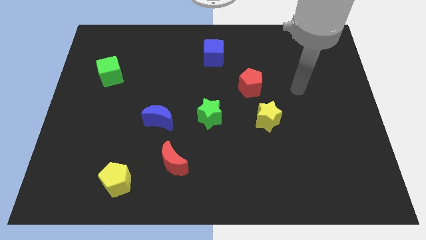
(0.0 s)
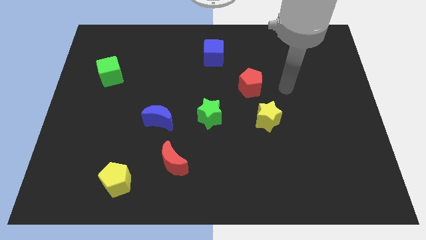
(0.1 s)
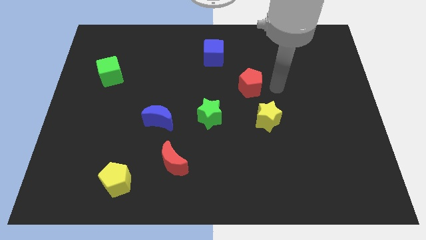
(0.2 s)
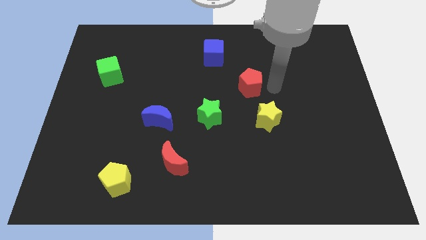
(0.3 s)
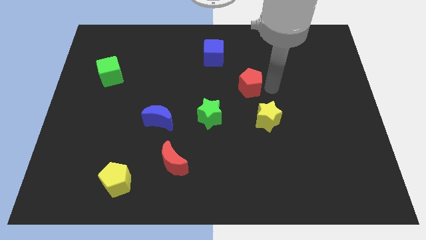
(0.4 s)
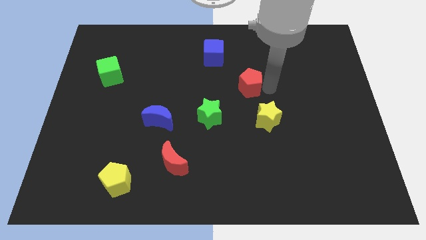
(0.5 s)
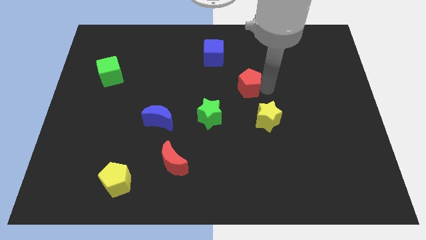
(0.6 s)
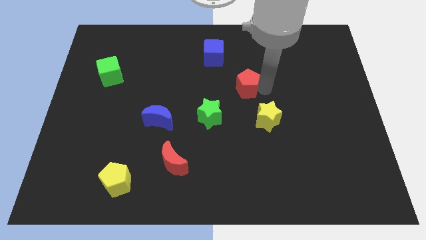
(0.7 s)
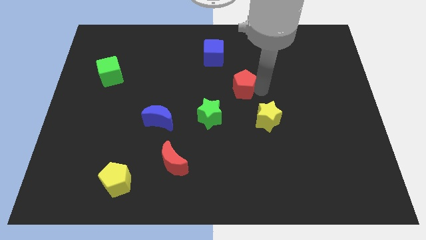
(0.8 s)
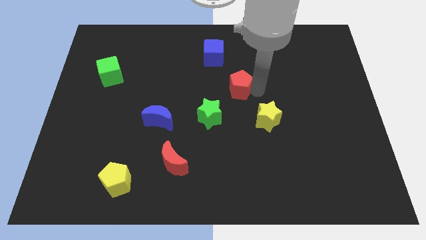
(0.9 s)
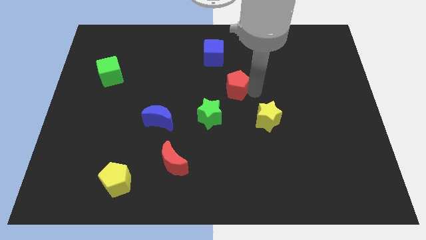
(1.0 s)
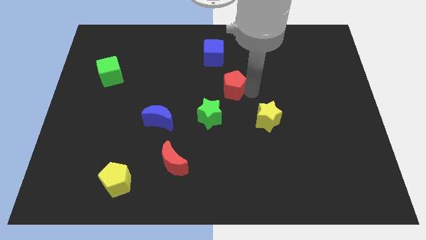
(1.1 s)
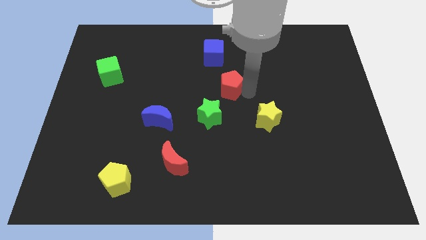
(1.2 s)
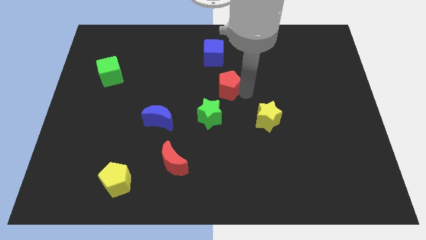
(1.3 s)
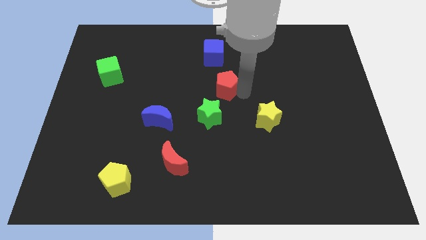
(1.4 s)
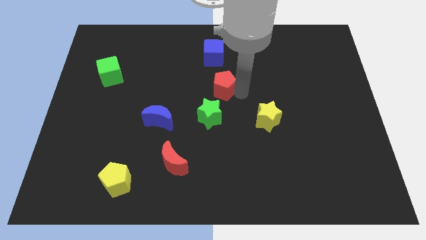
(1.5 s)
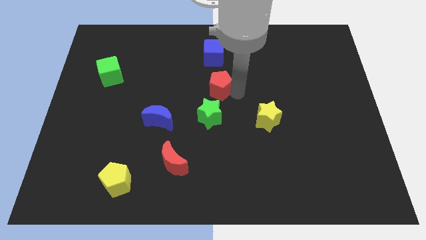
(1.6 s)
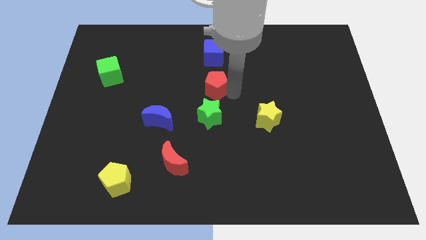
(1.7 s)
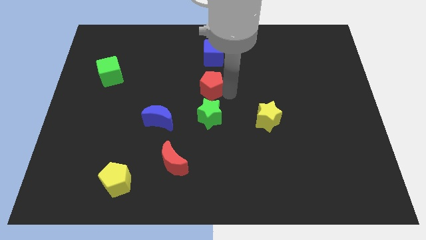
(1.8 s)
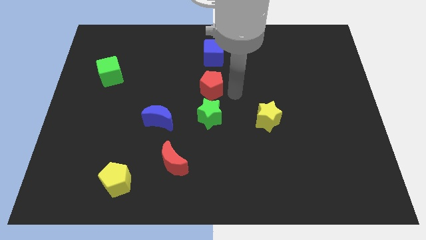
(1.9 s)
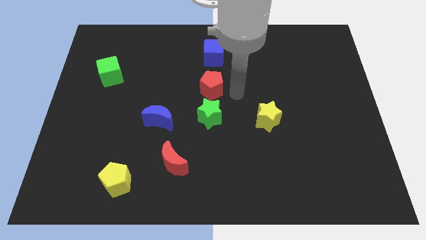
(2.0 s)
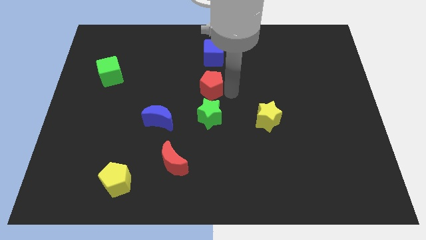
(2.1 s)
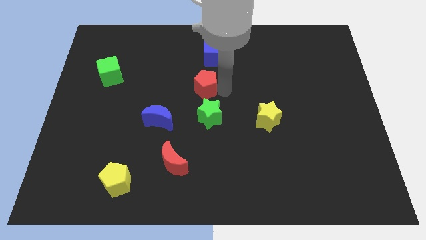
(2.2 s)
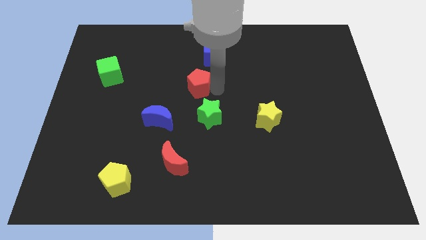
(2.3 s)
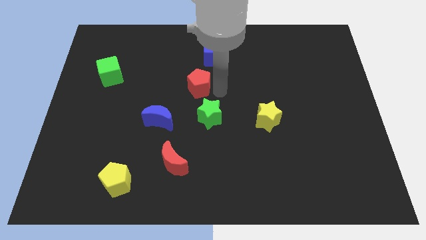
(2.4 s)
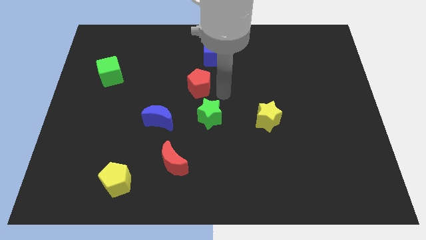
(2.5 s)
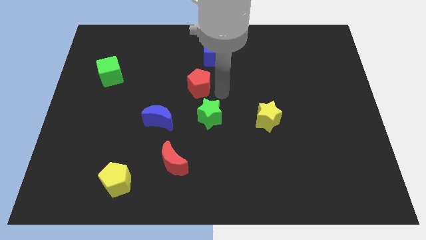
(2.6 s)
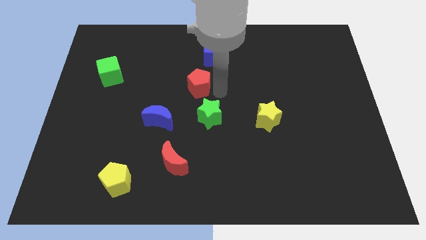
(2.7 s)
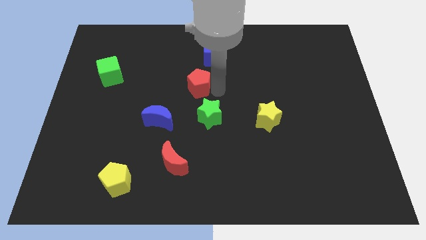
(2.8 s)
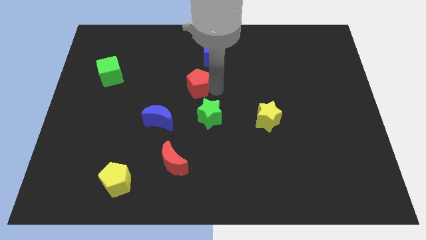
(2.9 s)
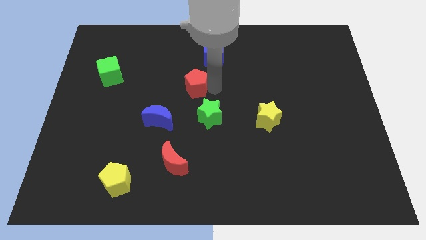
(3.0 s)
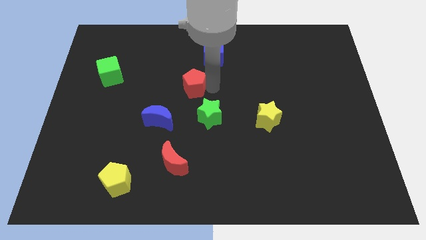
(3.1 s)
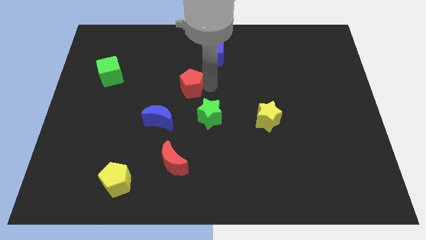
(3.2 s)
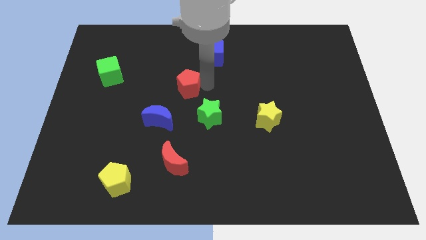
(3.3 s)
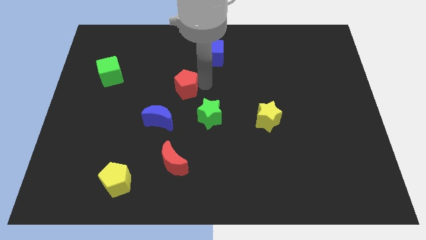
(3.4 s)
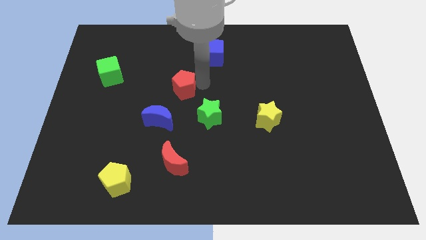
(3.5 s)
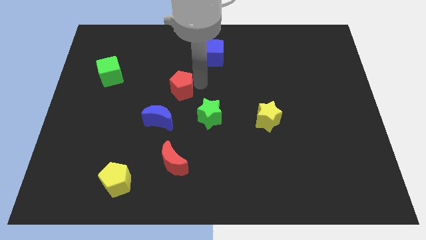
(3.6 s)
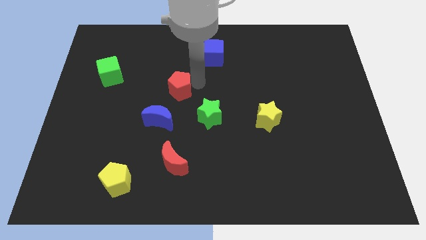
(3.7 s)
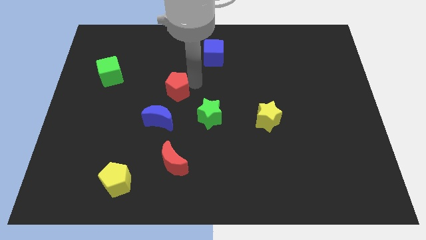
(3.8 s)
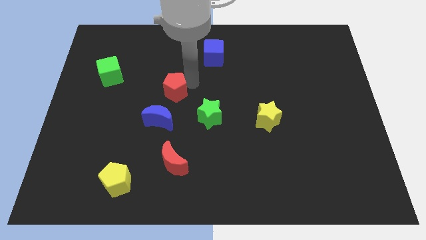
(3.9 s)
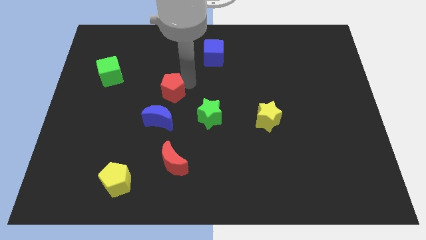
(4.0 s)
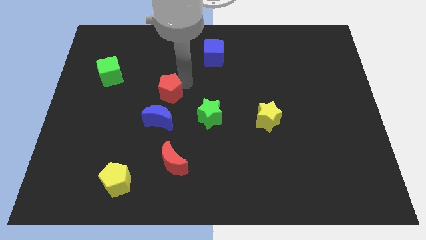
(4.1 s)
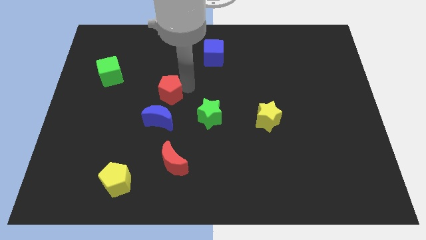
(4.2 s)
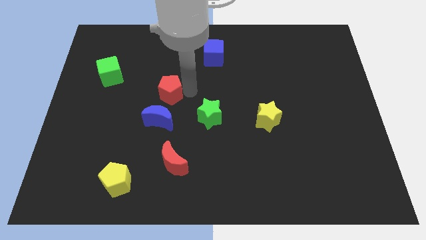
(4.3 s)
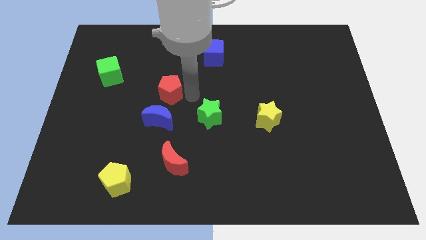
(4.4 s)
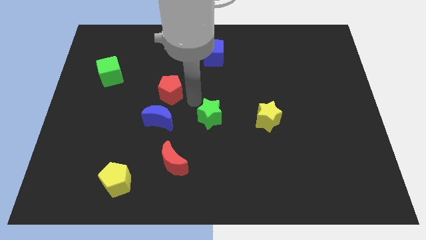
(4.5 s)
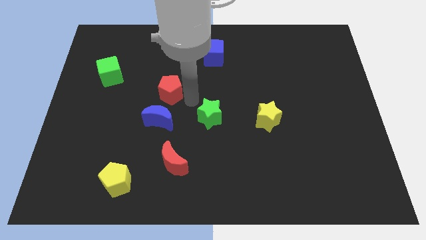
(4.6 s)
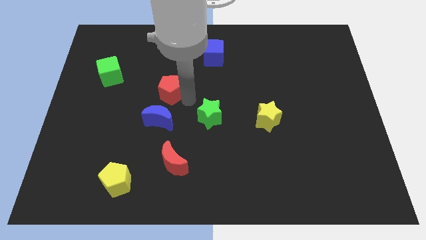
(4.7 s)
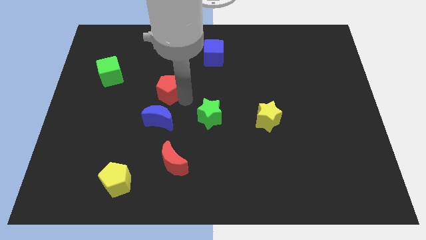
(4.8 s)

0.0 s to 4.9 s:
slide the red pentagon to the left

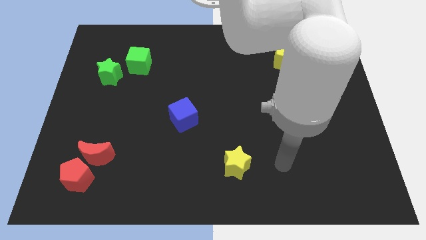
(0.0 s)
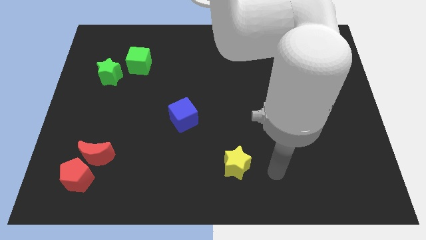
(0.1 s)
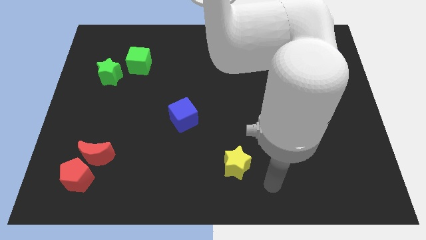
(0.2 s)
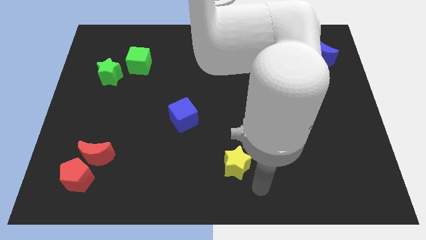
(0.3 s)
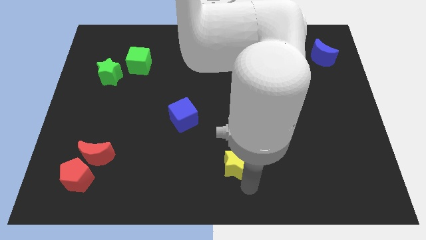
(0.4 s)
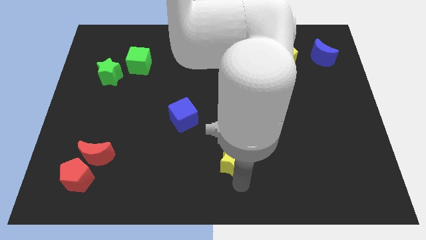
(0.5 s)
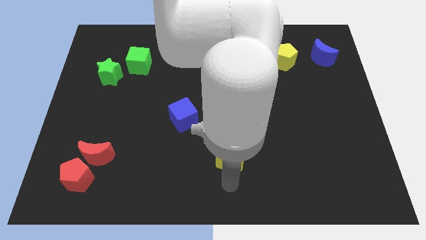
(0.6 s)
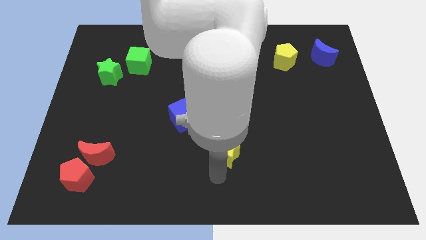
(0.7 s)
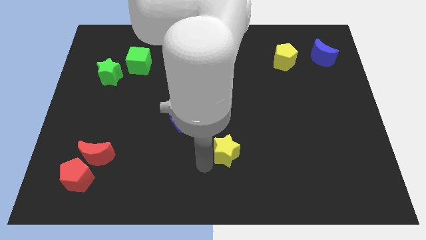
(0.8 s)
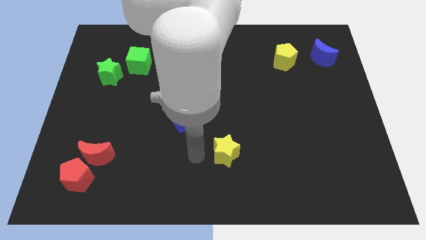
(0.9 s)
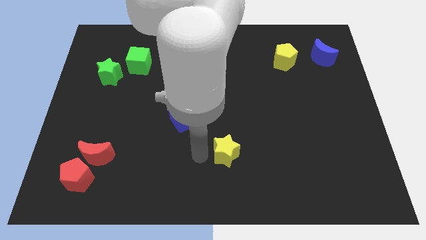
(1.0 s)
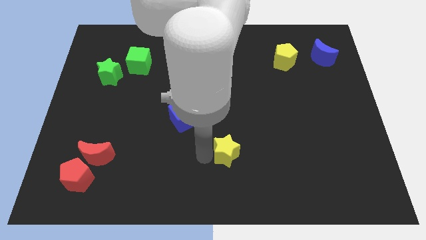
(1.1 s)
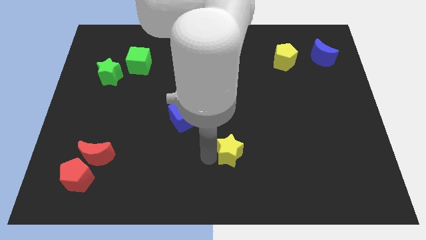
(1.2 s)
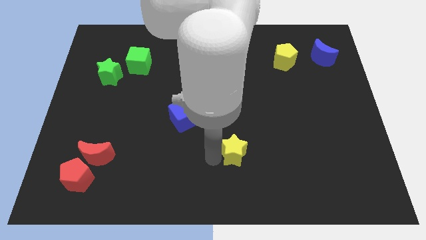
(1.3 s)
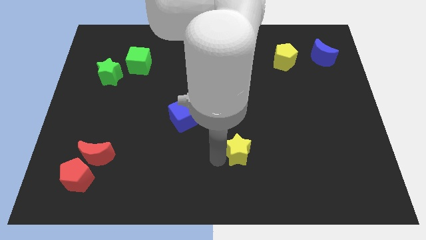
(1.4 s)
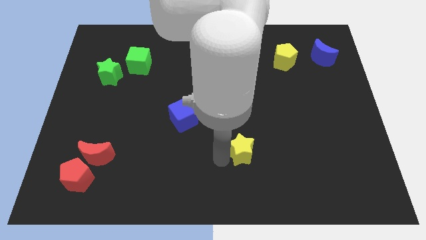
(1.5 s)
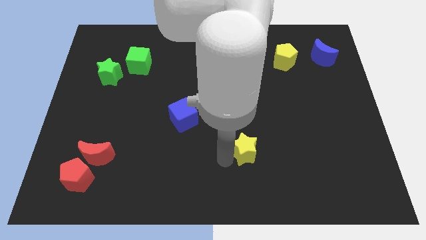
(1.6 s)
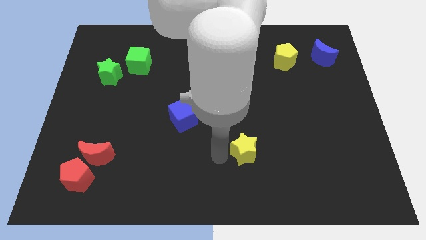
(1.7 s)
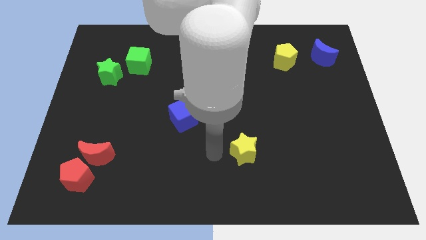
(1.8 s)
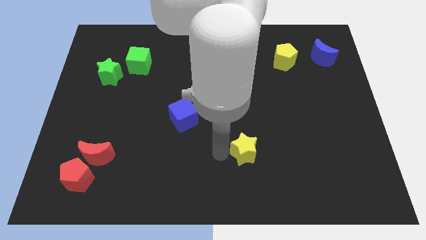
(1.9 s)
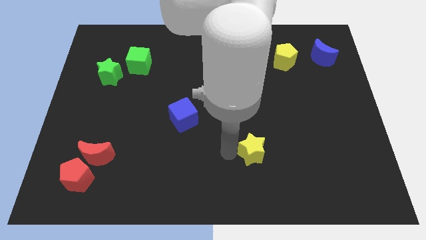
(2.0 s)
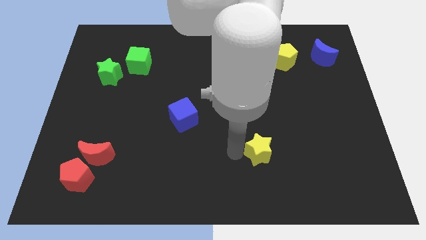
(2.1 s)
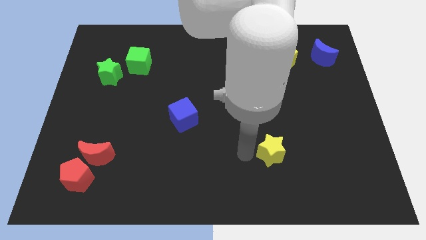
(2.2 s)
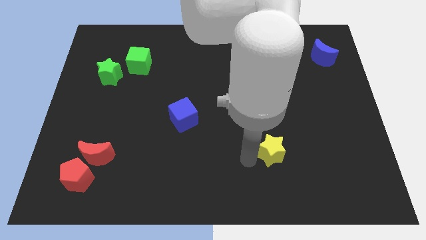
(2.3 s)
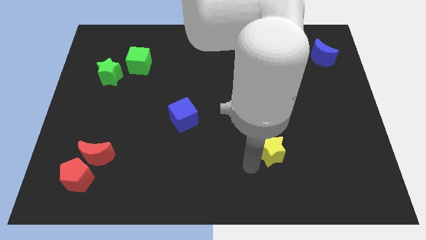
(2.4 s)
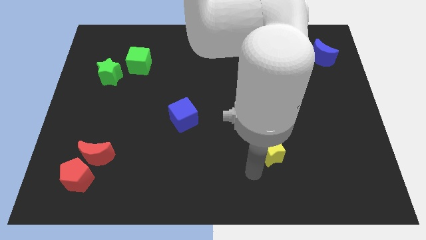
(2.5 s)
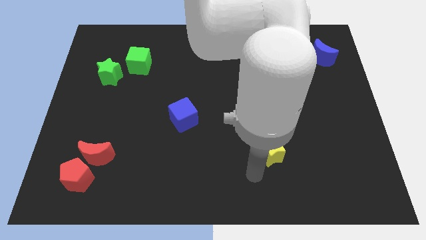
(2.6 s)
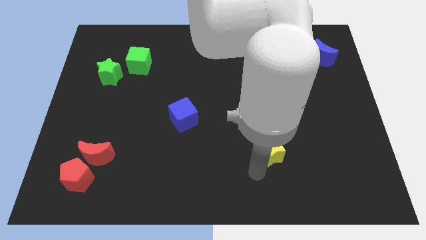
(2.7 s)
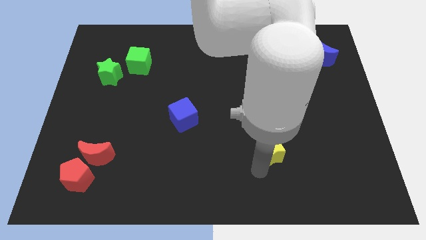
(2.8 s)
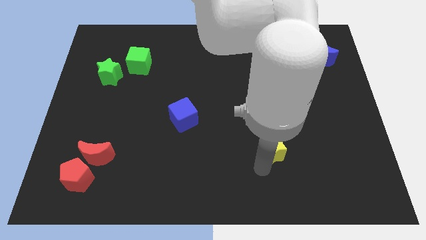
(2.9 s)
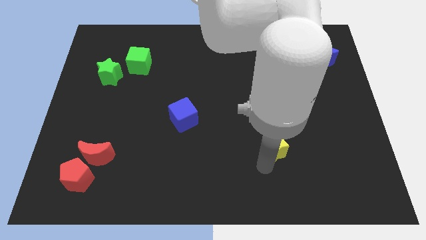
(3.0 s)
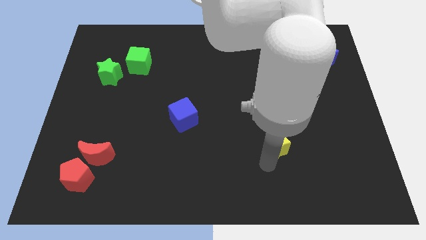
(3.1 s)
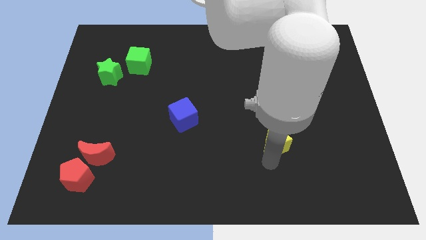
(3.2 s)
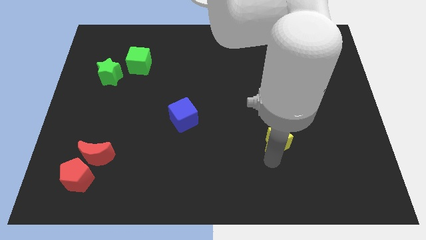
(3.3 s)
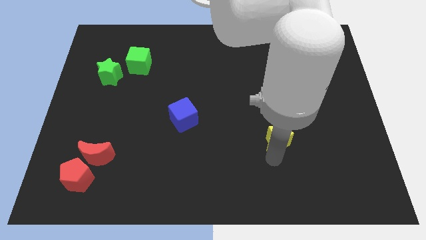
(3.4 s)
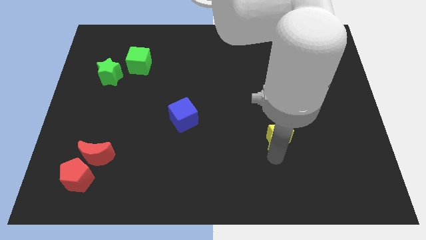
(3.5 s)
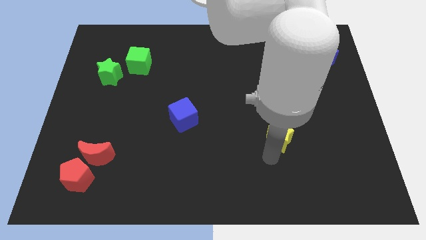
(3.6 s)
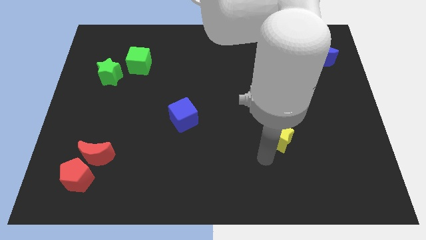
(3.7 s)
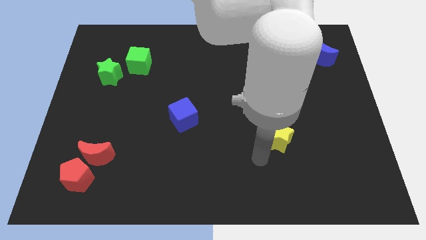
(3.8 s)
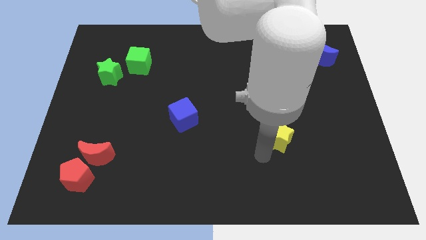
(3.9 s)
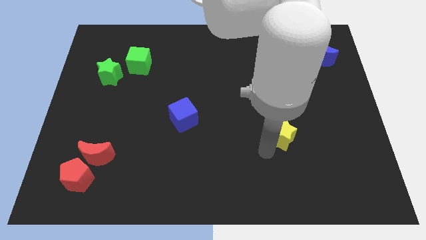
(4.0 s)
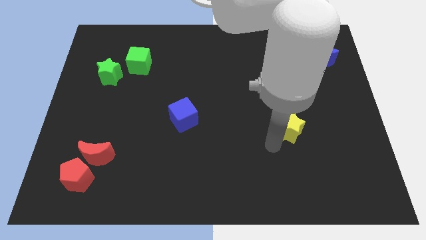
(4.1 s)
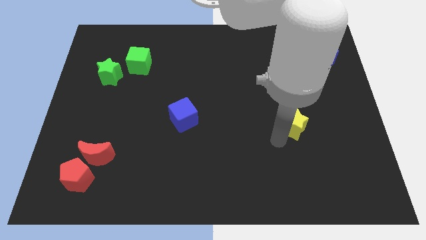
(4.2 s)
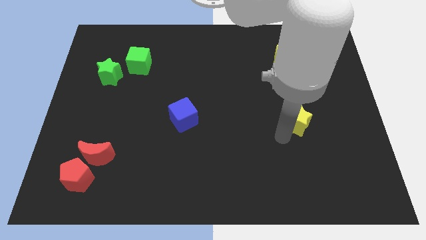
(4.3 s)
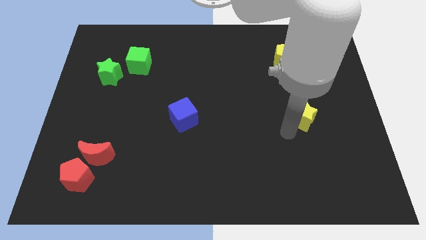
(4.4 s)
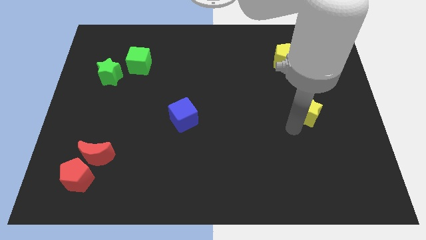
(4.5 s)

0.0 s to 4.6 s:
push the yellow star upwards and then to the right
